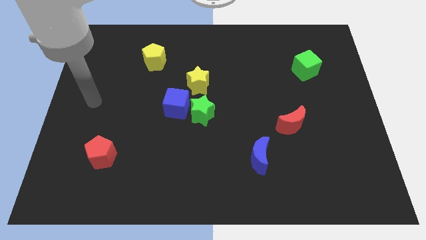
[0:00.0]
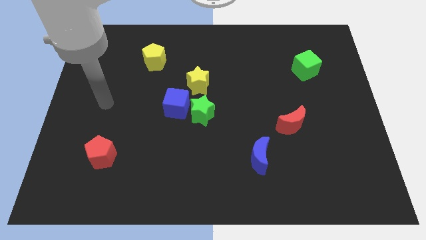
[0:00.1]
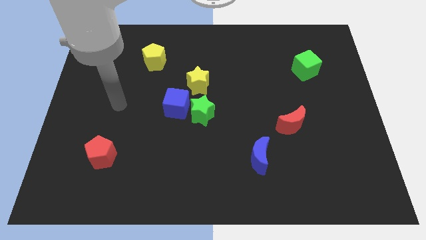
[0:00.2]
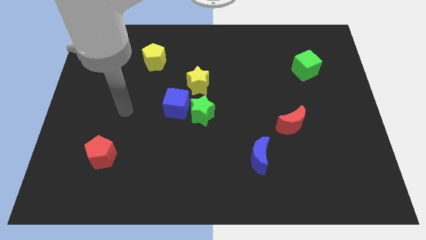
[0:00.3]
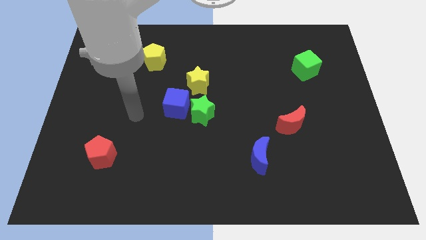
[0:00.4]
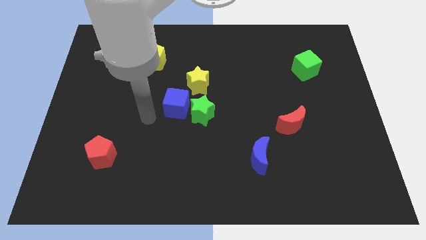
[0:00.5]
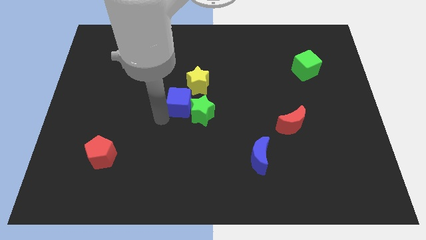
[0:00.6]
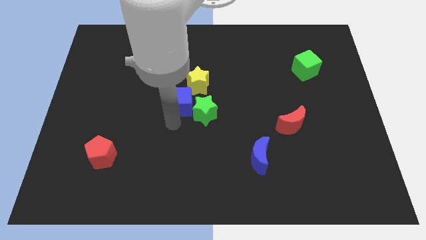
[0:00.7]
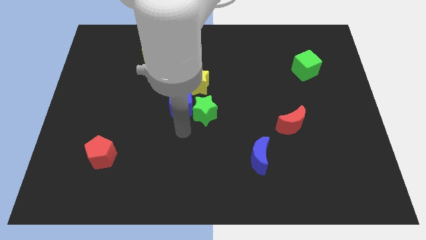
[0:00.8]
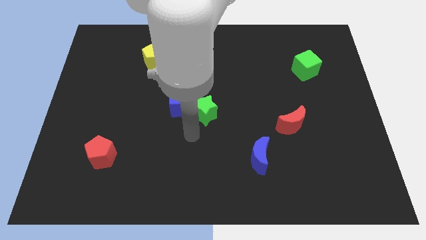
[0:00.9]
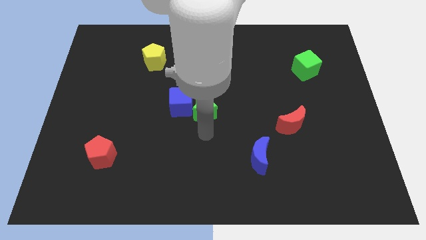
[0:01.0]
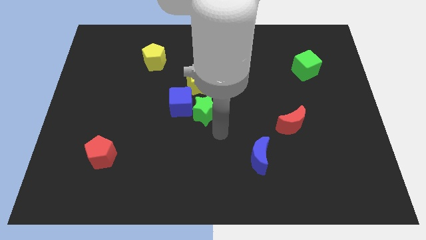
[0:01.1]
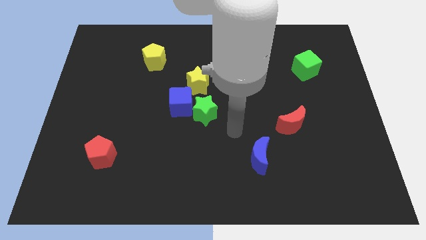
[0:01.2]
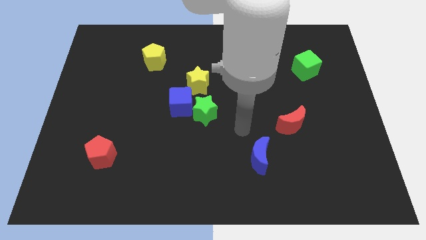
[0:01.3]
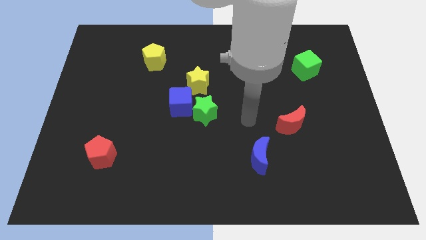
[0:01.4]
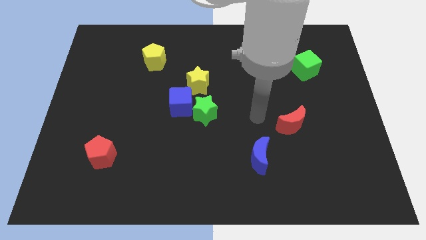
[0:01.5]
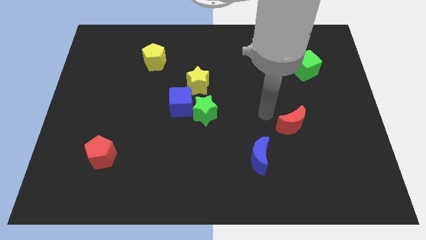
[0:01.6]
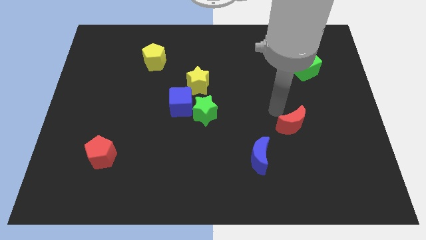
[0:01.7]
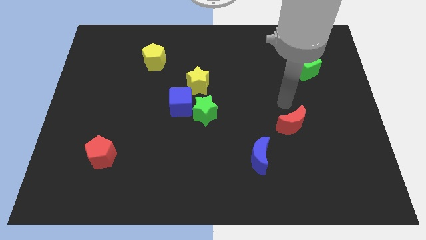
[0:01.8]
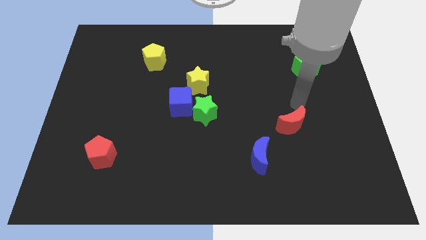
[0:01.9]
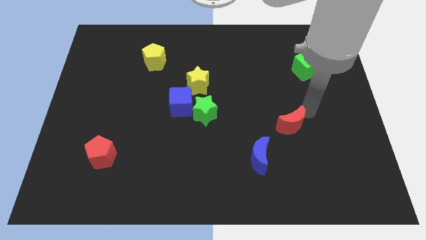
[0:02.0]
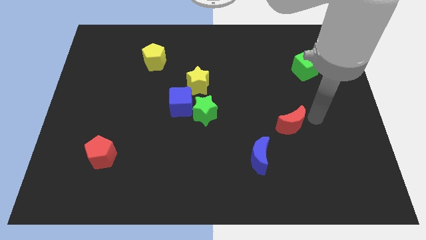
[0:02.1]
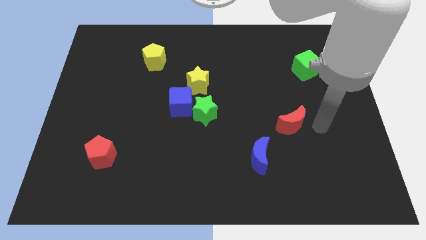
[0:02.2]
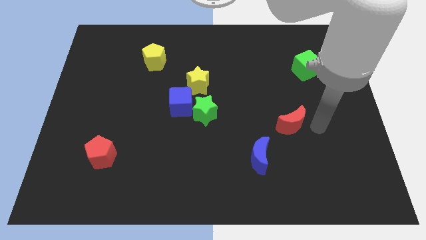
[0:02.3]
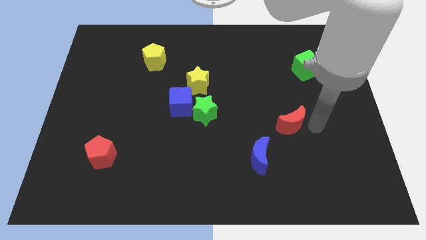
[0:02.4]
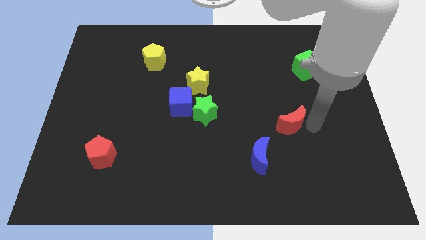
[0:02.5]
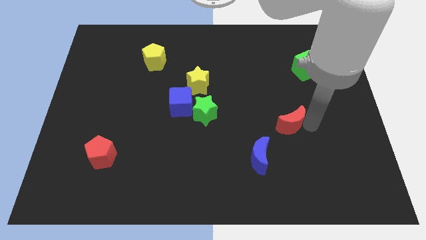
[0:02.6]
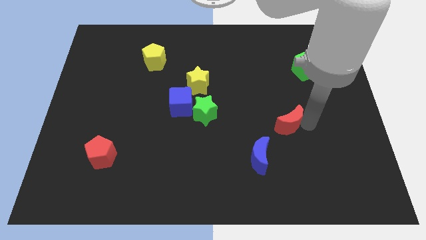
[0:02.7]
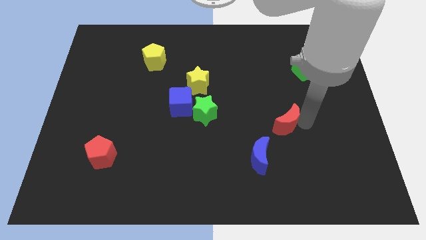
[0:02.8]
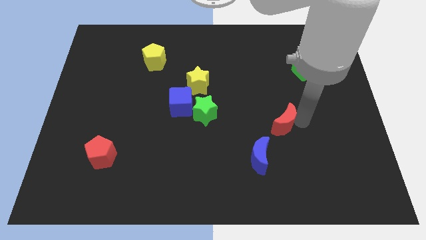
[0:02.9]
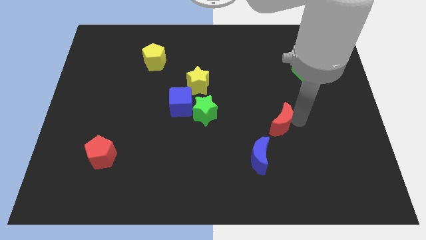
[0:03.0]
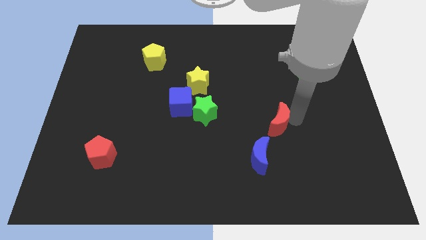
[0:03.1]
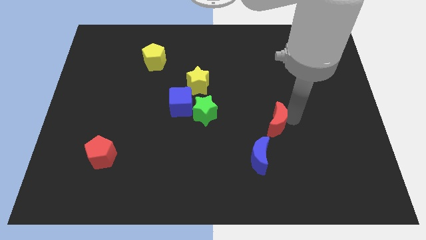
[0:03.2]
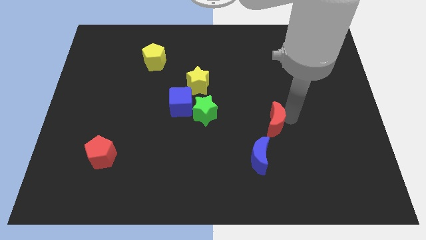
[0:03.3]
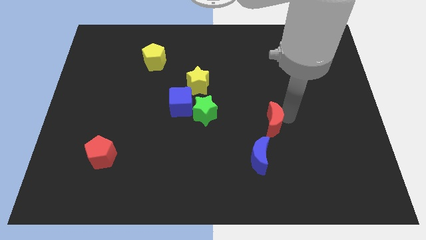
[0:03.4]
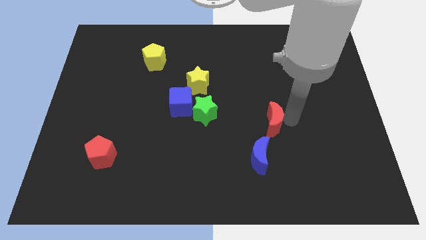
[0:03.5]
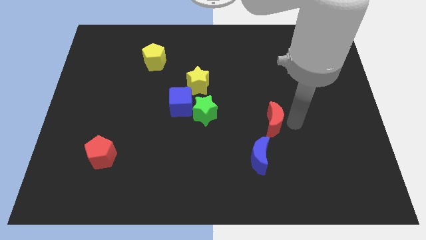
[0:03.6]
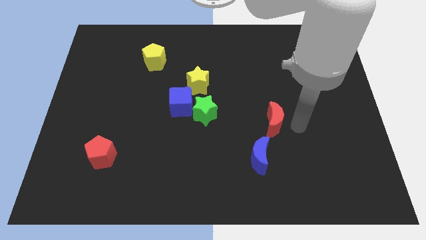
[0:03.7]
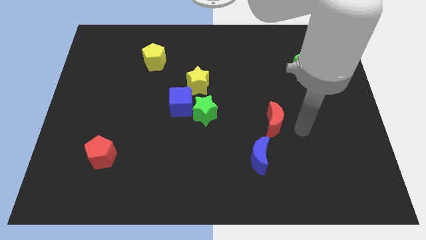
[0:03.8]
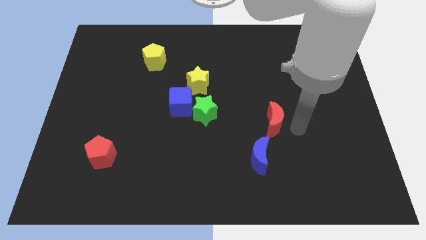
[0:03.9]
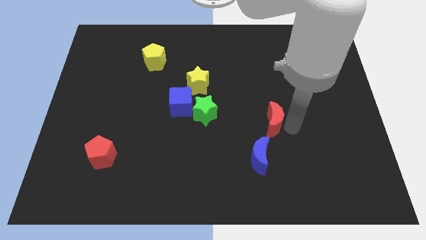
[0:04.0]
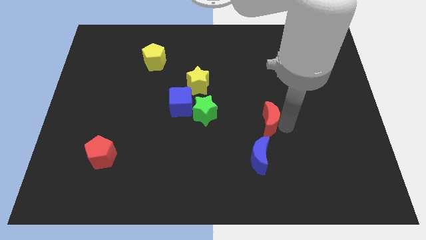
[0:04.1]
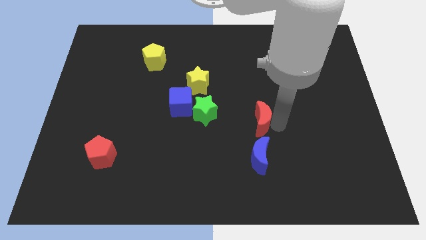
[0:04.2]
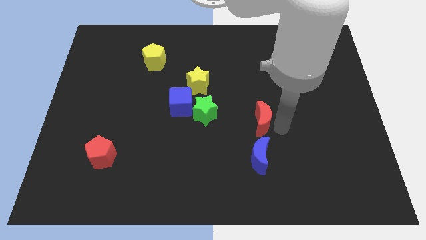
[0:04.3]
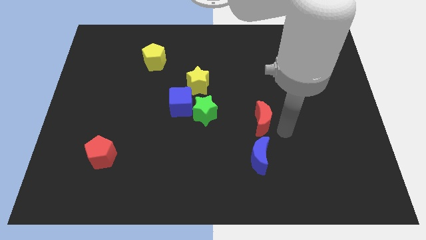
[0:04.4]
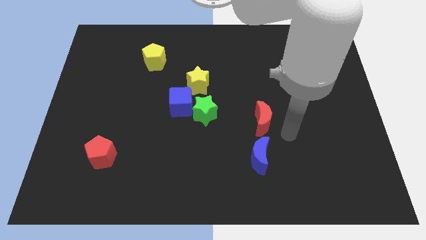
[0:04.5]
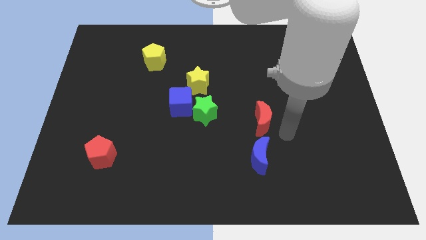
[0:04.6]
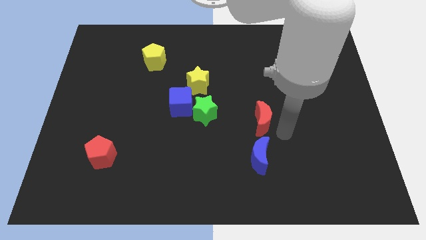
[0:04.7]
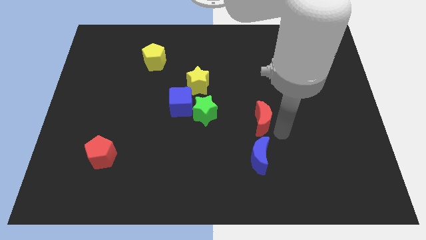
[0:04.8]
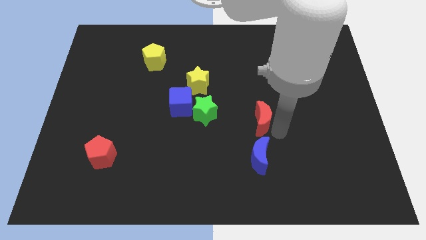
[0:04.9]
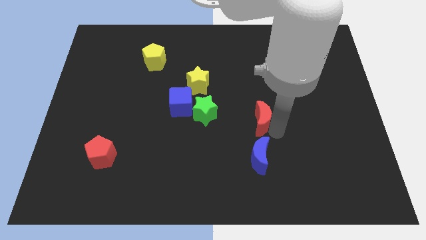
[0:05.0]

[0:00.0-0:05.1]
slide the red moon to the middle

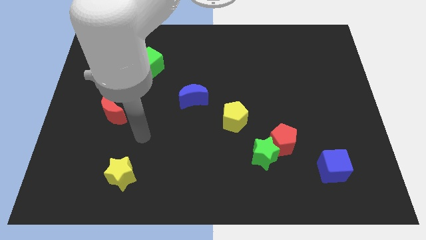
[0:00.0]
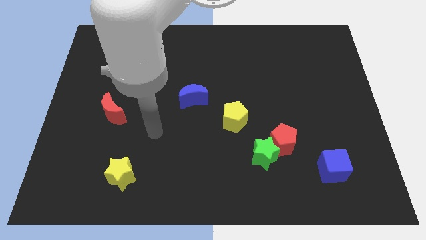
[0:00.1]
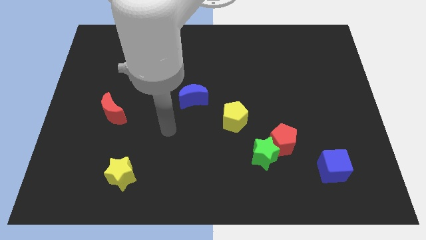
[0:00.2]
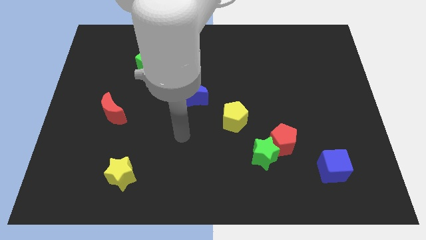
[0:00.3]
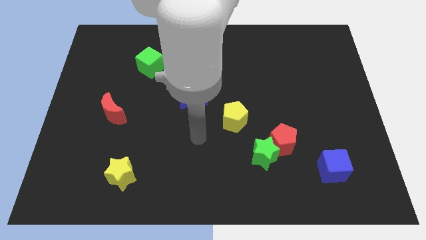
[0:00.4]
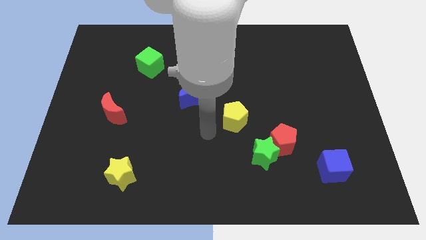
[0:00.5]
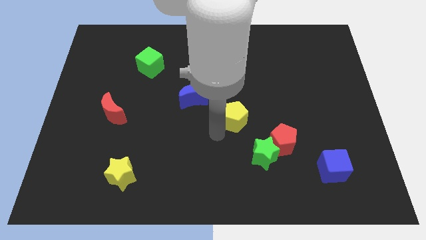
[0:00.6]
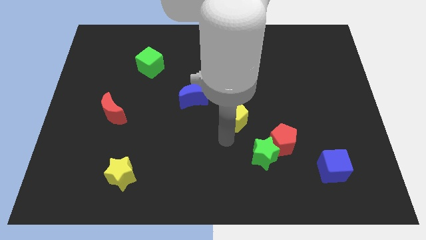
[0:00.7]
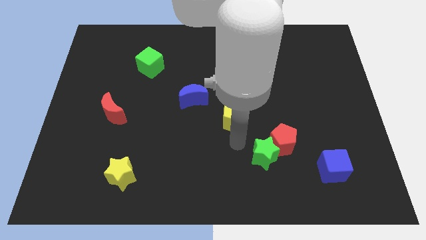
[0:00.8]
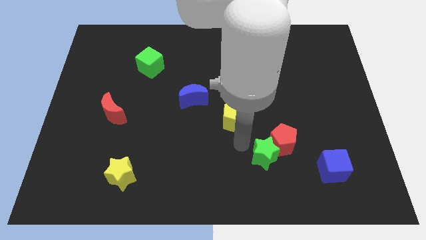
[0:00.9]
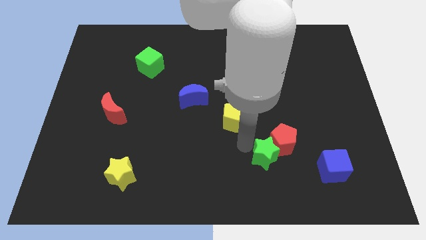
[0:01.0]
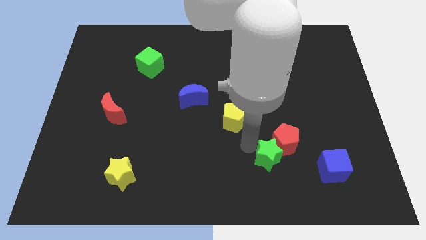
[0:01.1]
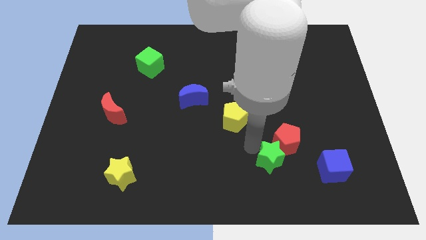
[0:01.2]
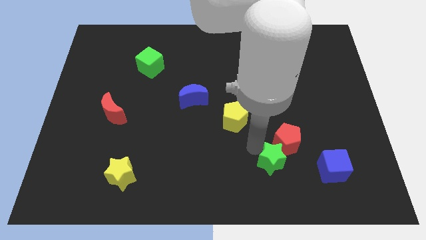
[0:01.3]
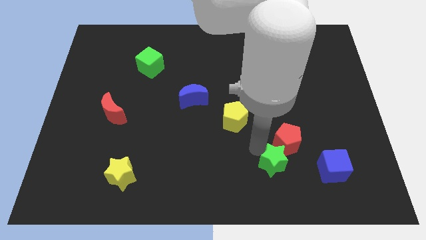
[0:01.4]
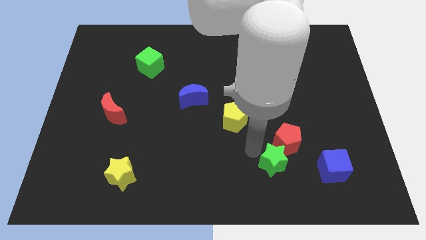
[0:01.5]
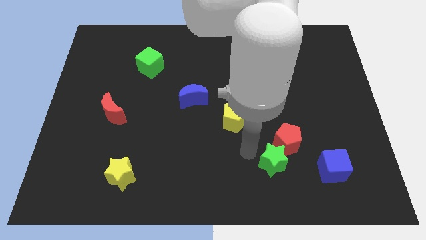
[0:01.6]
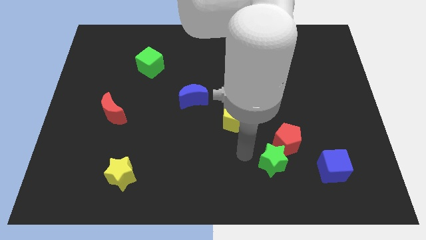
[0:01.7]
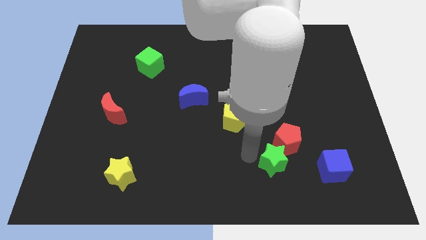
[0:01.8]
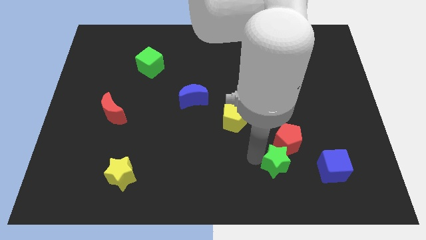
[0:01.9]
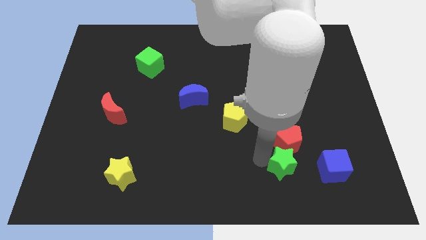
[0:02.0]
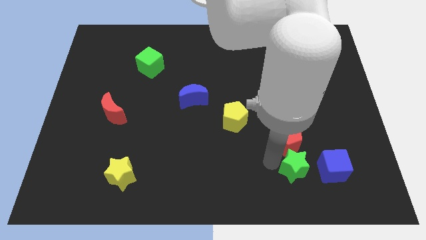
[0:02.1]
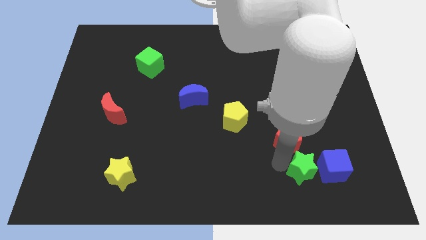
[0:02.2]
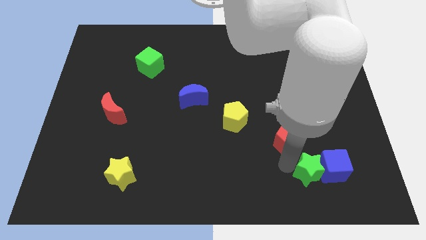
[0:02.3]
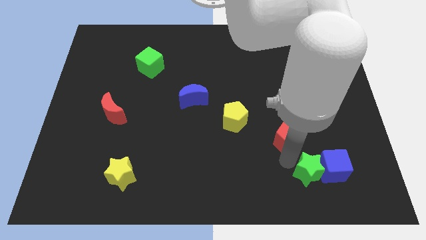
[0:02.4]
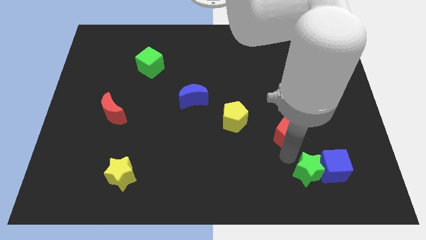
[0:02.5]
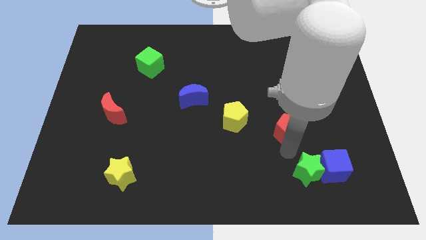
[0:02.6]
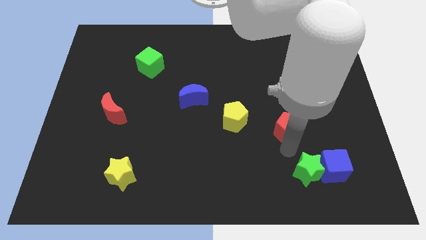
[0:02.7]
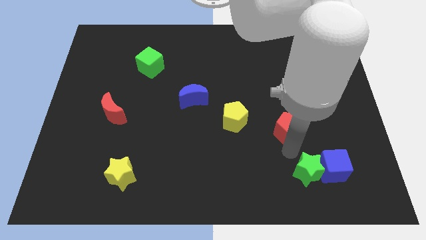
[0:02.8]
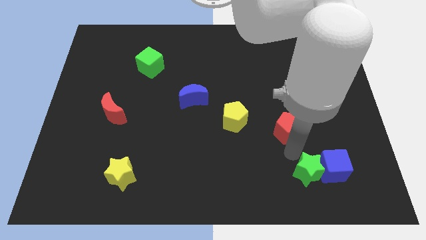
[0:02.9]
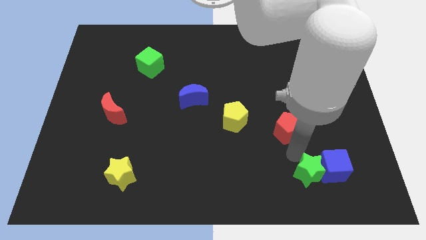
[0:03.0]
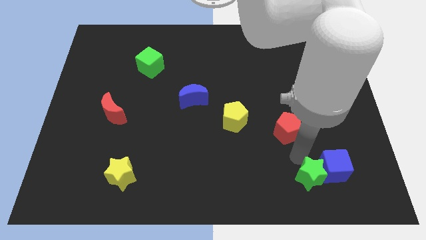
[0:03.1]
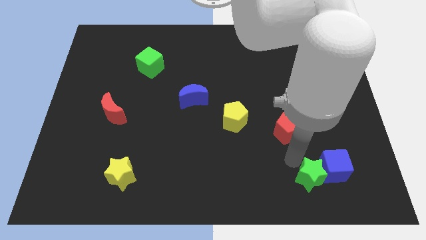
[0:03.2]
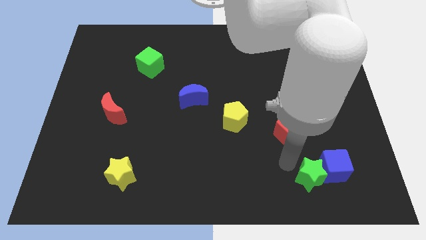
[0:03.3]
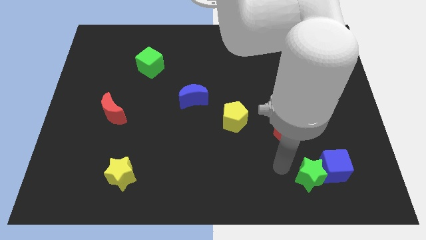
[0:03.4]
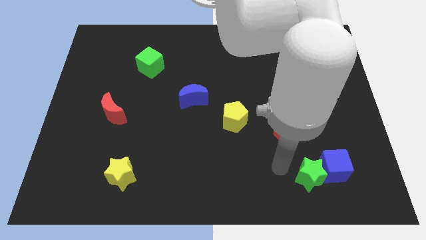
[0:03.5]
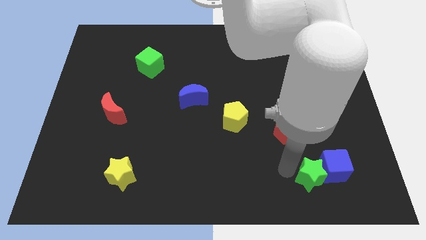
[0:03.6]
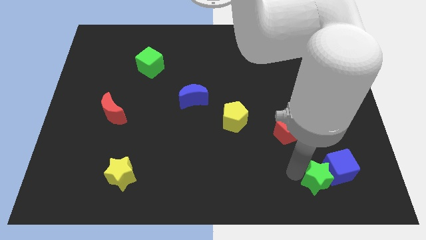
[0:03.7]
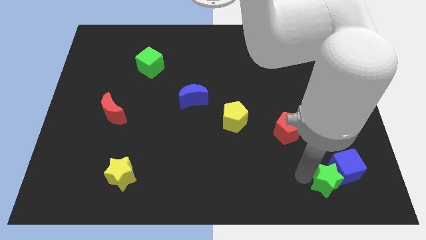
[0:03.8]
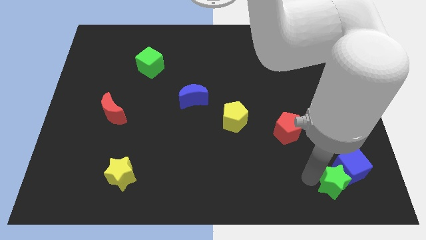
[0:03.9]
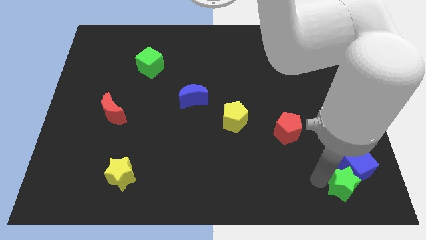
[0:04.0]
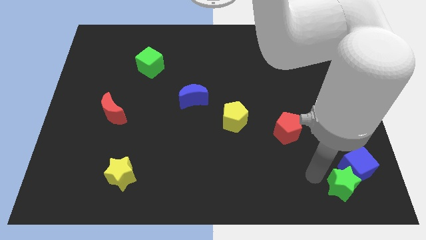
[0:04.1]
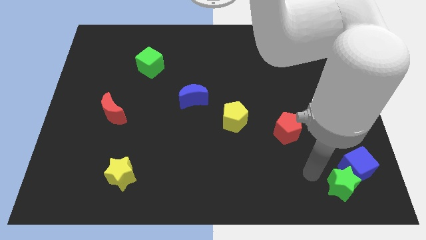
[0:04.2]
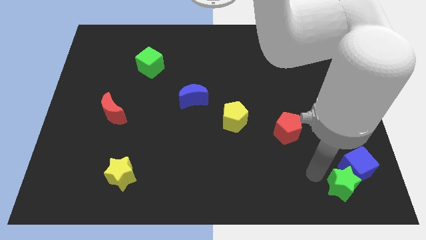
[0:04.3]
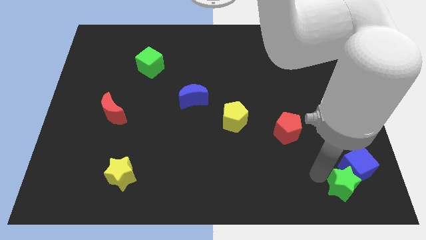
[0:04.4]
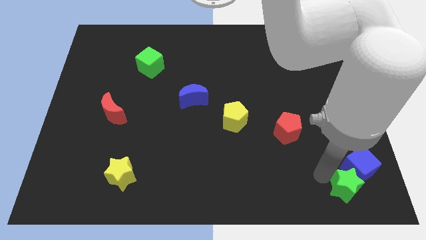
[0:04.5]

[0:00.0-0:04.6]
push the green star to the bottom right
